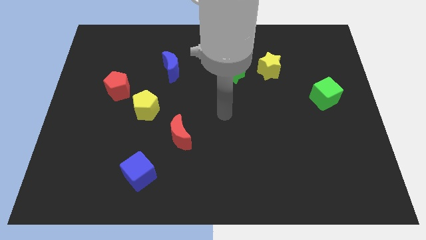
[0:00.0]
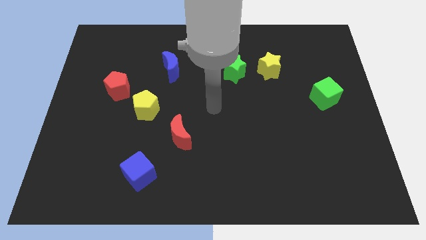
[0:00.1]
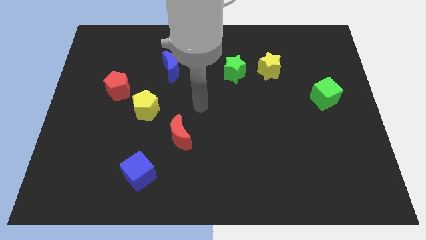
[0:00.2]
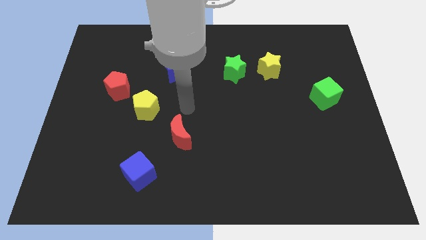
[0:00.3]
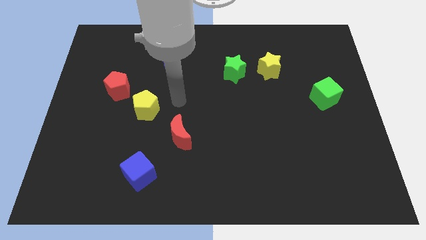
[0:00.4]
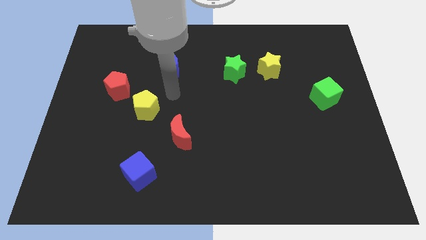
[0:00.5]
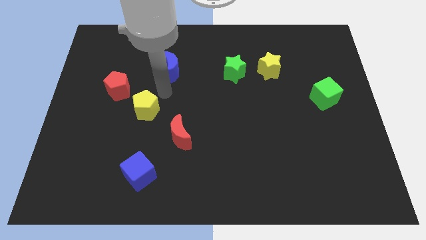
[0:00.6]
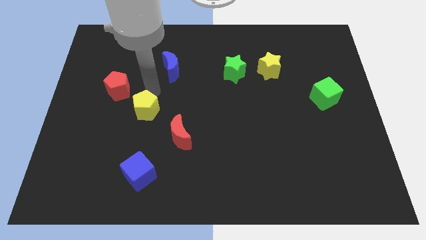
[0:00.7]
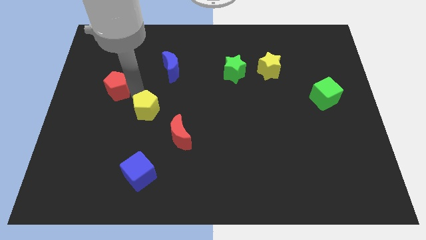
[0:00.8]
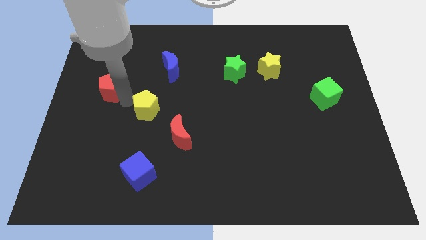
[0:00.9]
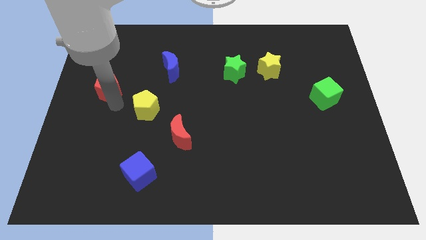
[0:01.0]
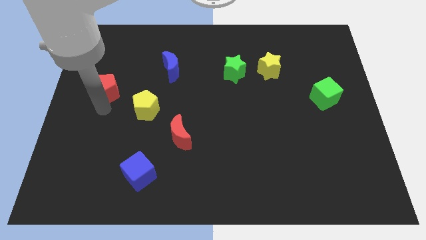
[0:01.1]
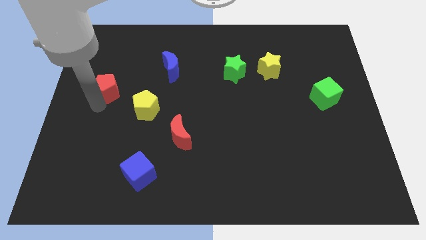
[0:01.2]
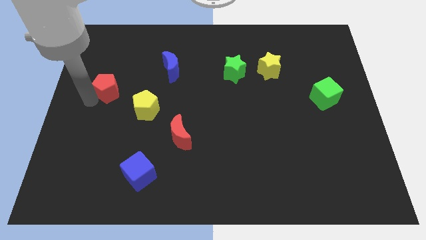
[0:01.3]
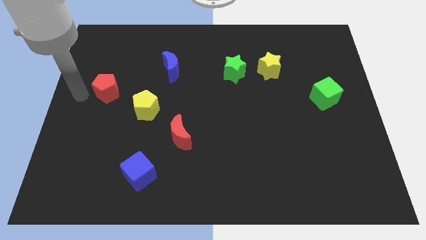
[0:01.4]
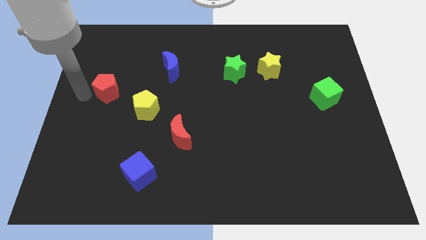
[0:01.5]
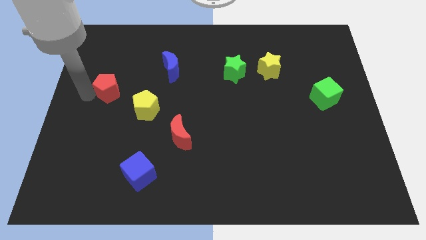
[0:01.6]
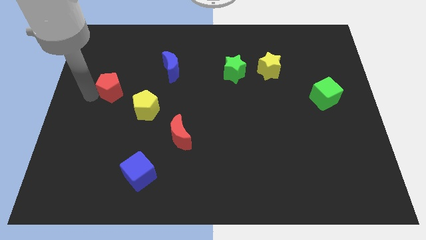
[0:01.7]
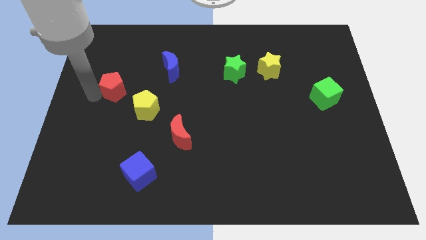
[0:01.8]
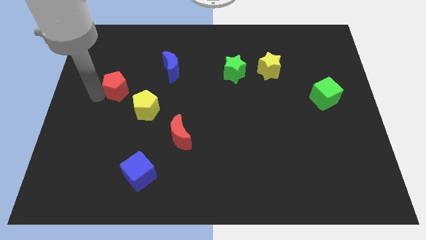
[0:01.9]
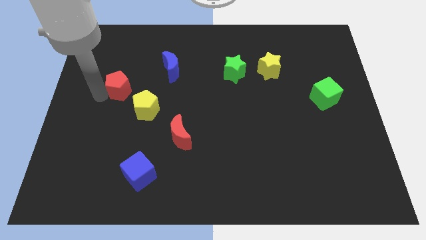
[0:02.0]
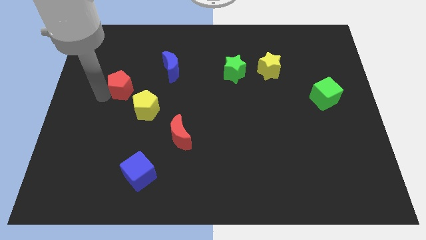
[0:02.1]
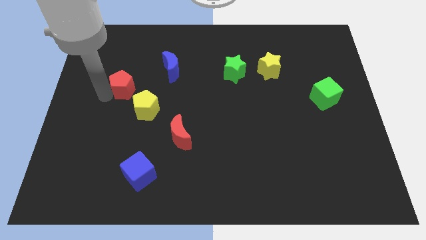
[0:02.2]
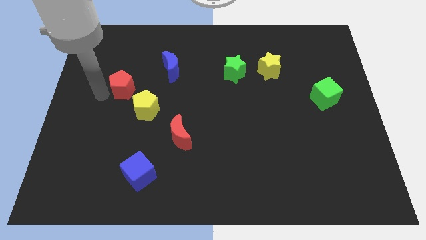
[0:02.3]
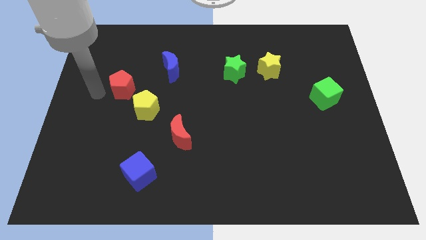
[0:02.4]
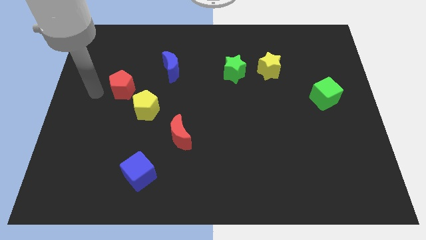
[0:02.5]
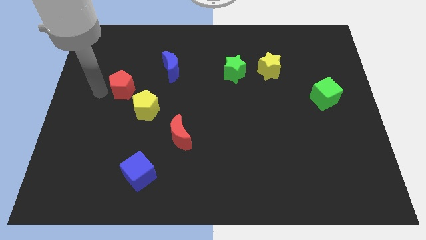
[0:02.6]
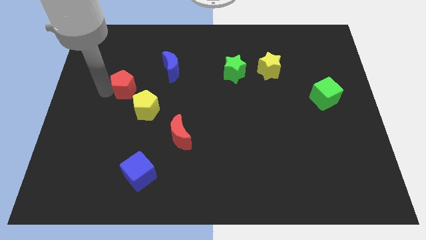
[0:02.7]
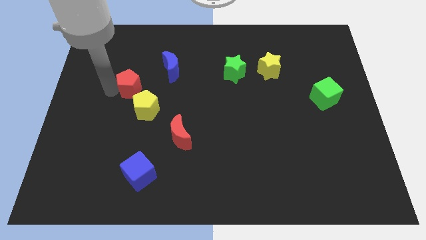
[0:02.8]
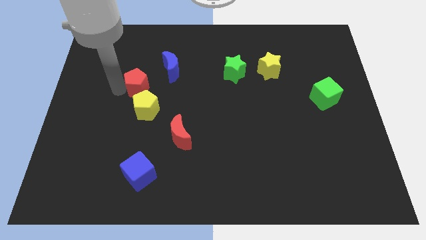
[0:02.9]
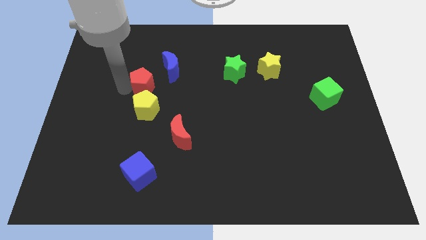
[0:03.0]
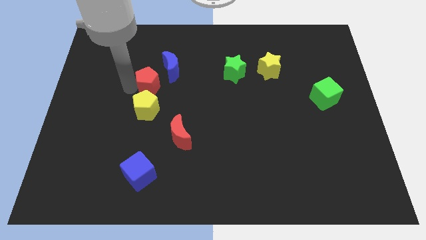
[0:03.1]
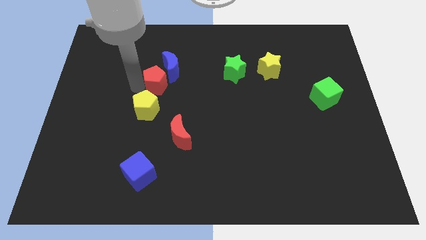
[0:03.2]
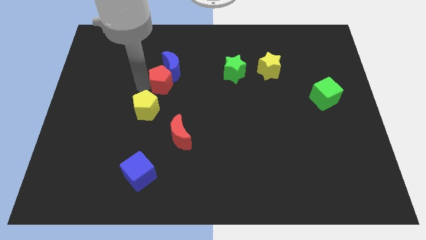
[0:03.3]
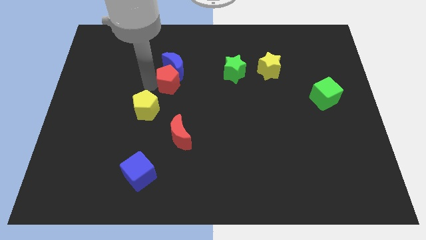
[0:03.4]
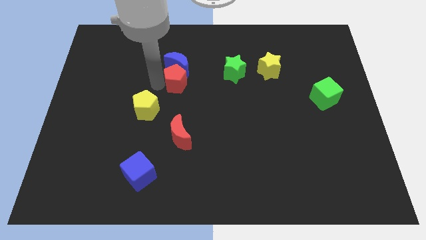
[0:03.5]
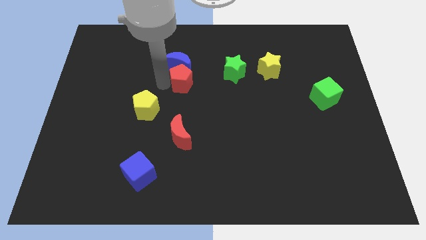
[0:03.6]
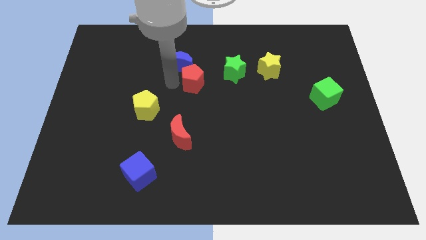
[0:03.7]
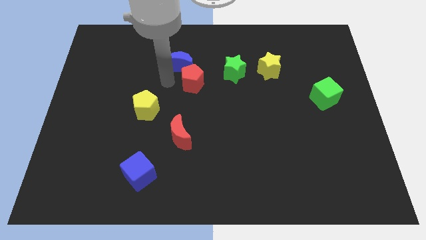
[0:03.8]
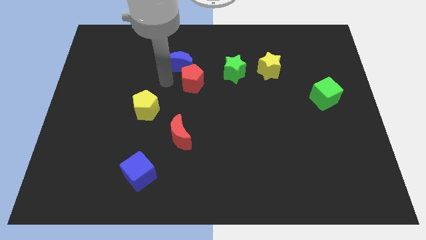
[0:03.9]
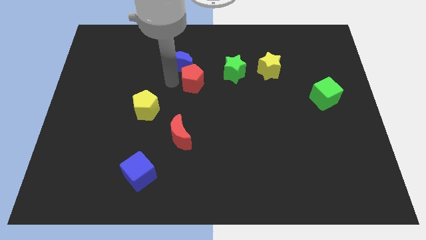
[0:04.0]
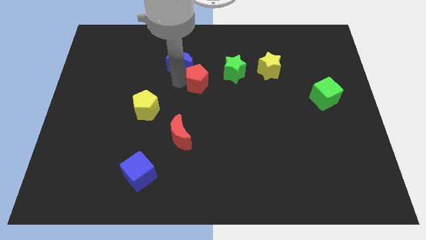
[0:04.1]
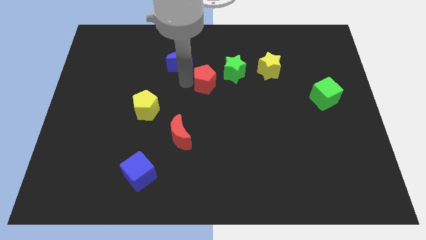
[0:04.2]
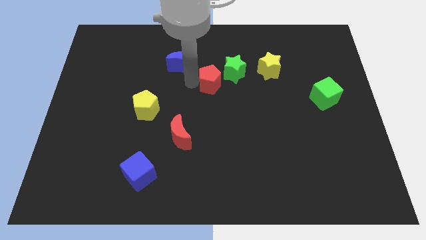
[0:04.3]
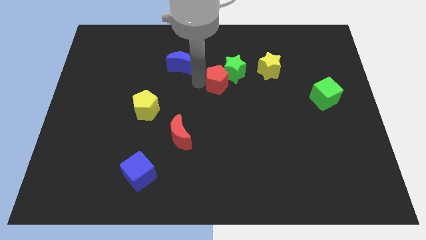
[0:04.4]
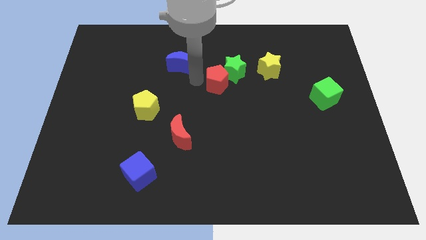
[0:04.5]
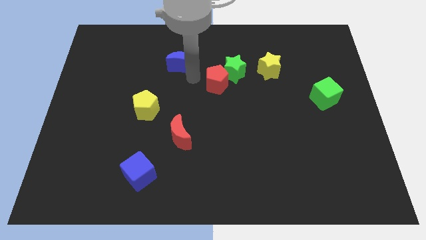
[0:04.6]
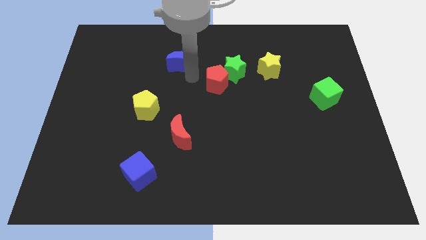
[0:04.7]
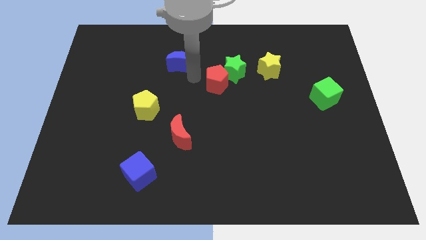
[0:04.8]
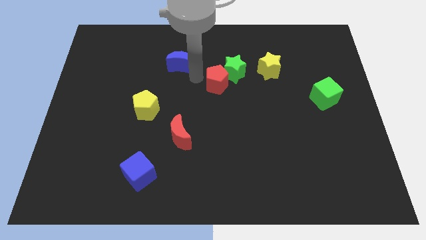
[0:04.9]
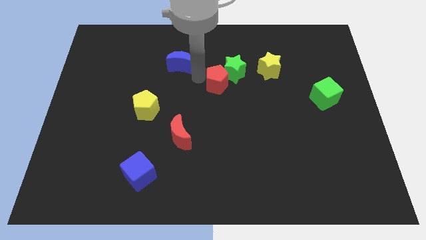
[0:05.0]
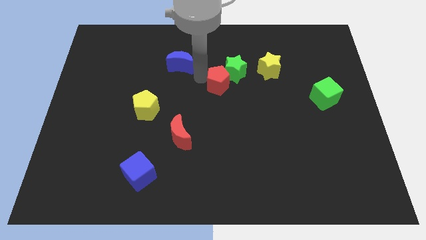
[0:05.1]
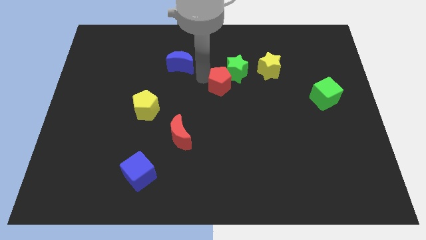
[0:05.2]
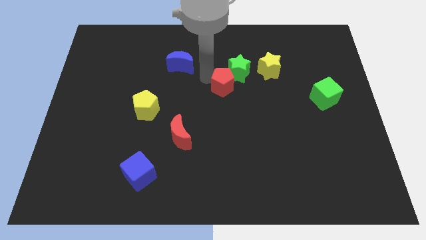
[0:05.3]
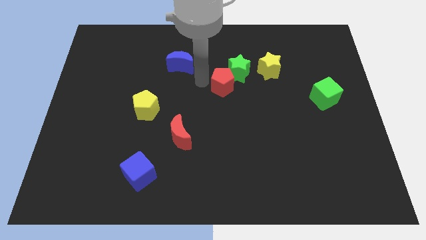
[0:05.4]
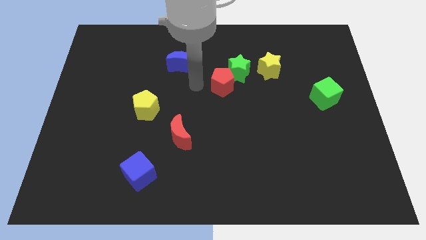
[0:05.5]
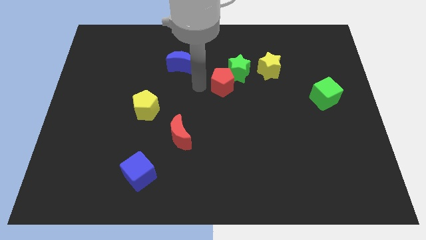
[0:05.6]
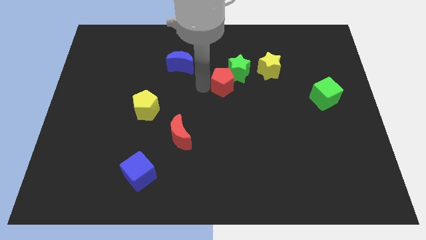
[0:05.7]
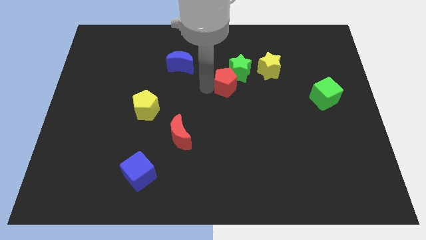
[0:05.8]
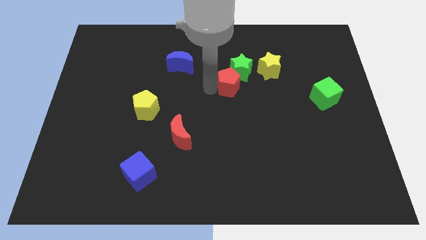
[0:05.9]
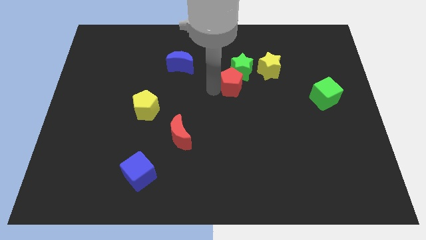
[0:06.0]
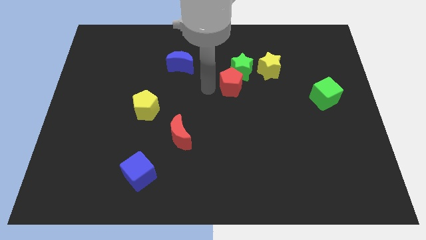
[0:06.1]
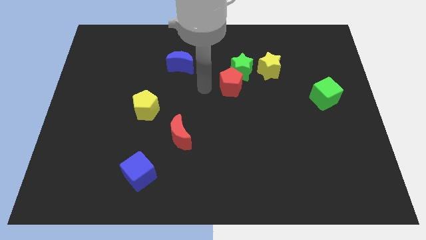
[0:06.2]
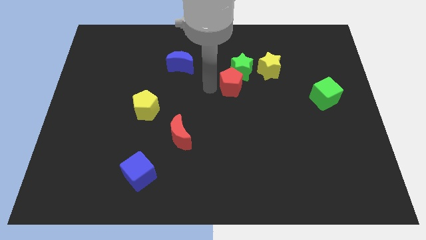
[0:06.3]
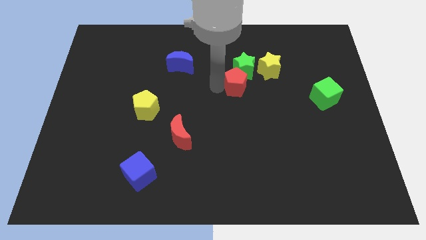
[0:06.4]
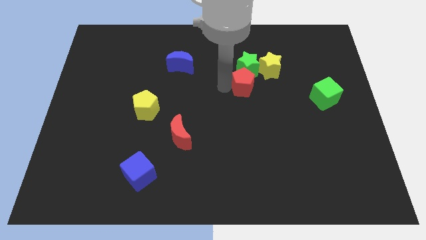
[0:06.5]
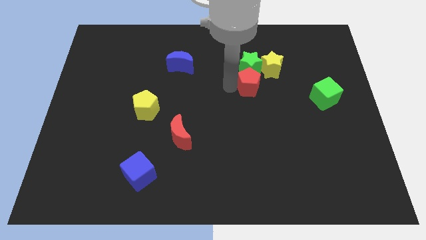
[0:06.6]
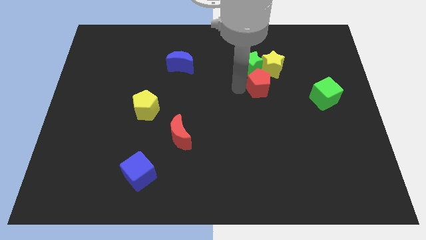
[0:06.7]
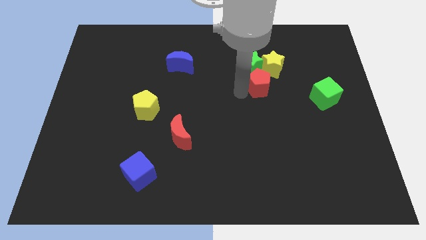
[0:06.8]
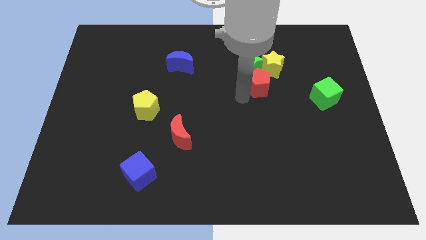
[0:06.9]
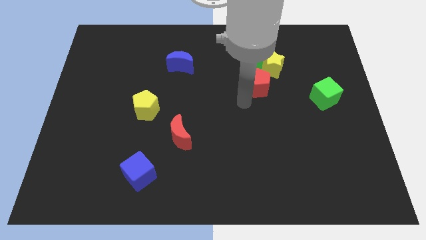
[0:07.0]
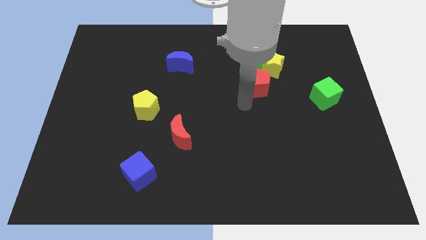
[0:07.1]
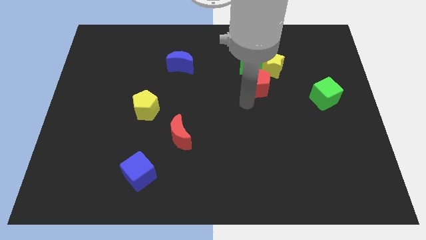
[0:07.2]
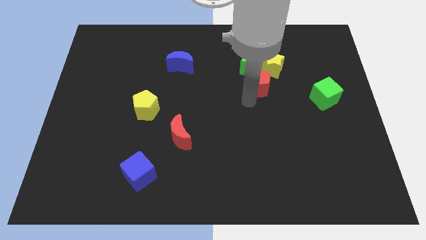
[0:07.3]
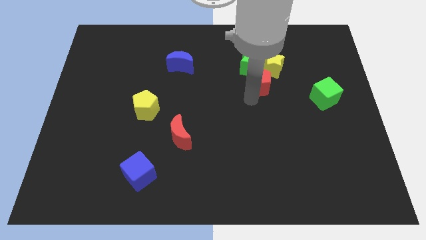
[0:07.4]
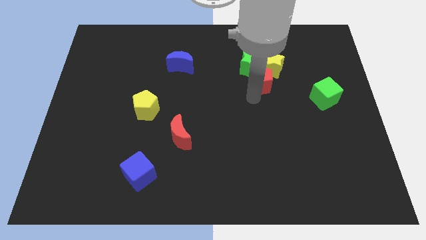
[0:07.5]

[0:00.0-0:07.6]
move the red pentagon to the yellow star
